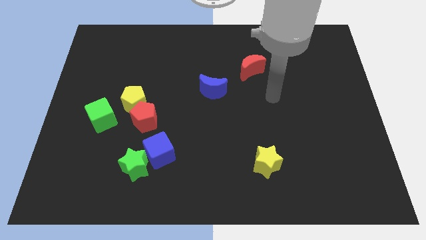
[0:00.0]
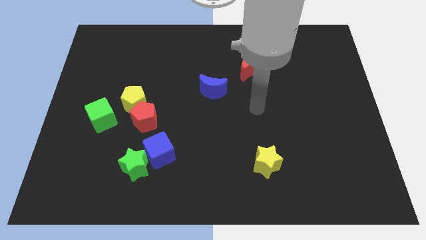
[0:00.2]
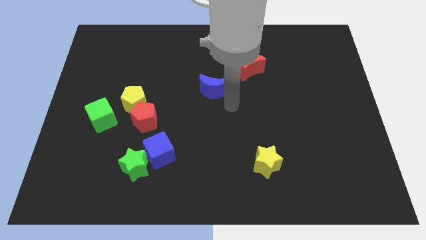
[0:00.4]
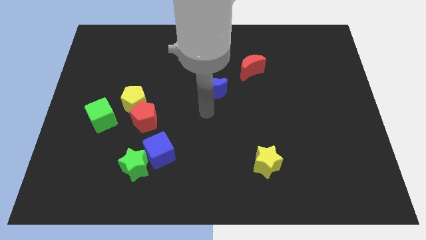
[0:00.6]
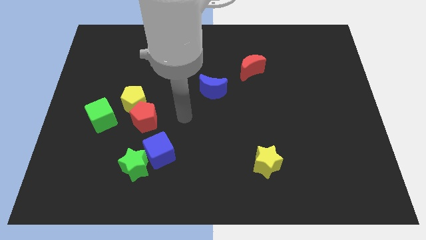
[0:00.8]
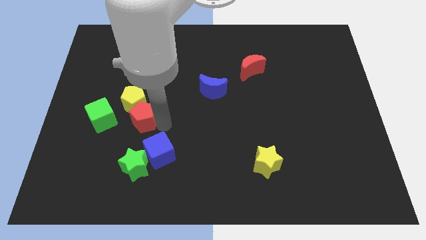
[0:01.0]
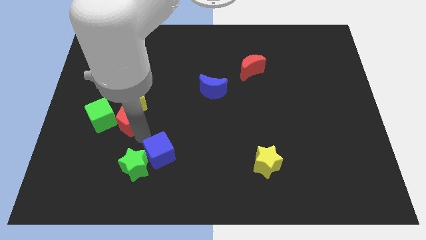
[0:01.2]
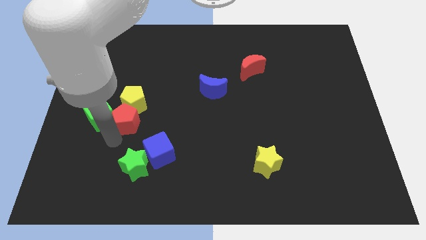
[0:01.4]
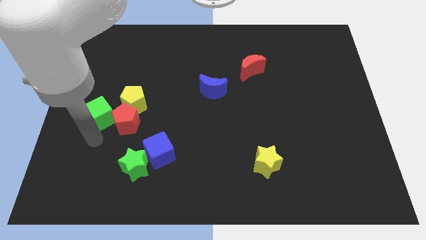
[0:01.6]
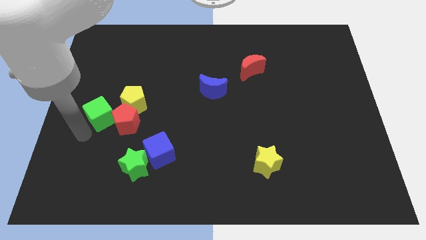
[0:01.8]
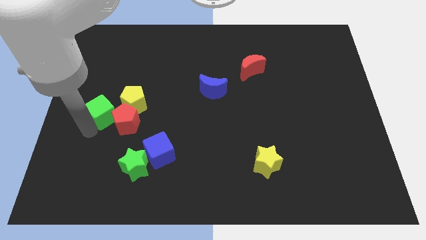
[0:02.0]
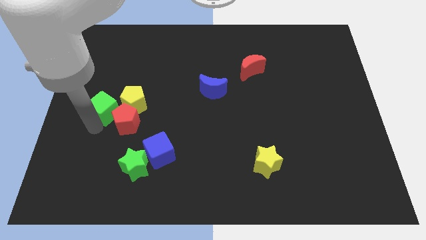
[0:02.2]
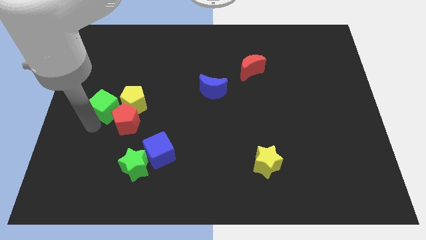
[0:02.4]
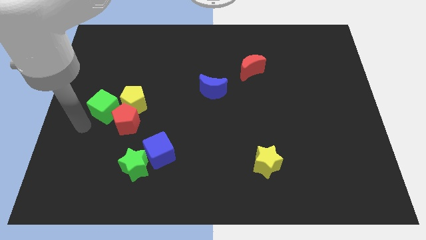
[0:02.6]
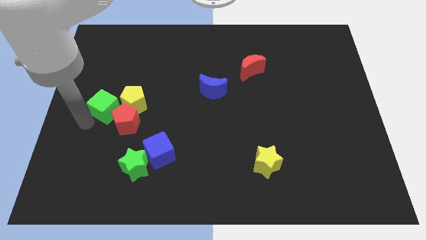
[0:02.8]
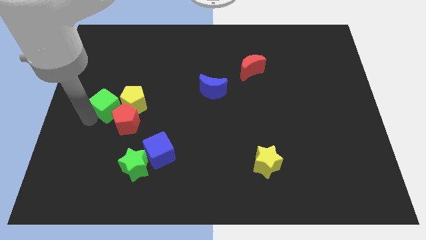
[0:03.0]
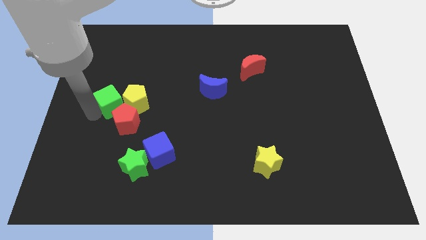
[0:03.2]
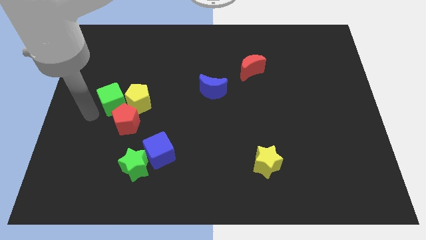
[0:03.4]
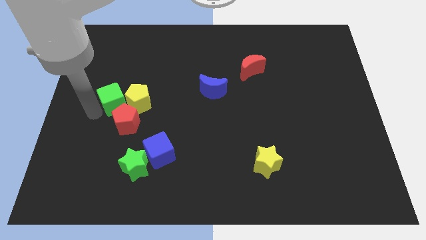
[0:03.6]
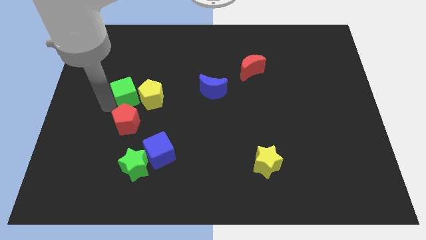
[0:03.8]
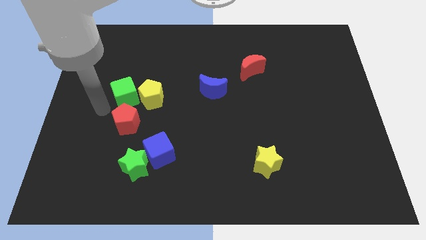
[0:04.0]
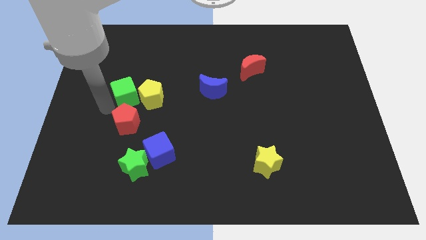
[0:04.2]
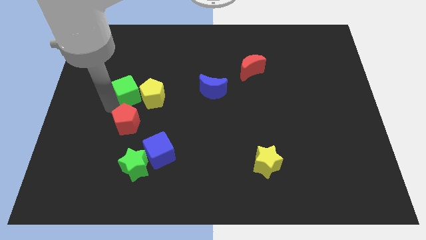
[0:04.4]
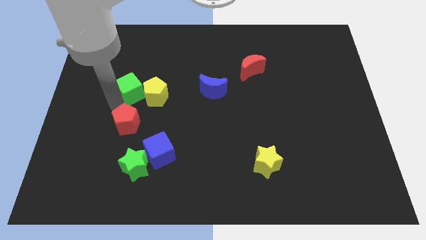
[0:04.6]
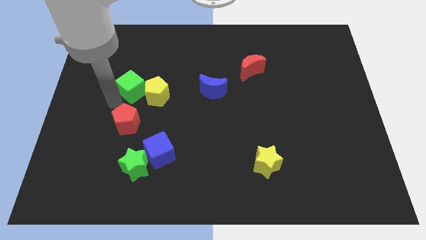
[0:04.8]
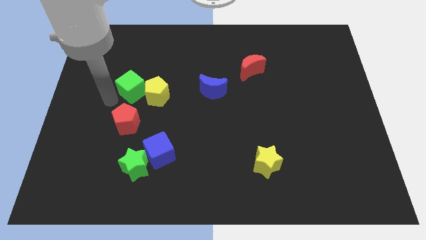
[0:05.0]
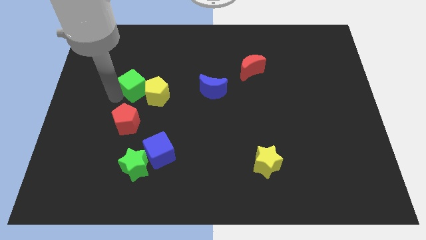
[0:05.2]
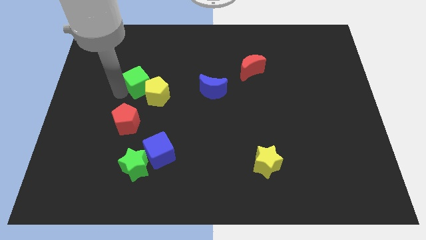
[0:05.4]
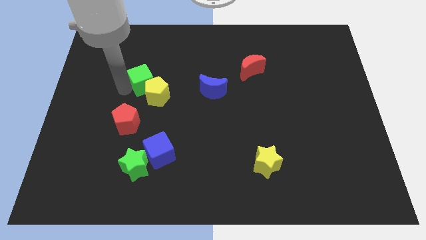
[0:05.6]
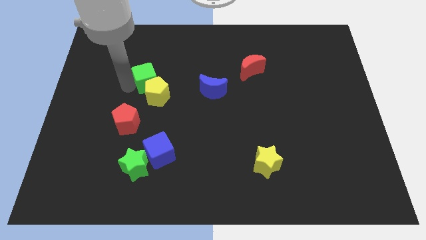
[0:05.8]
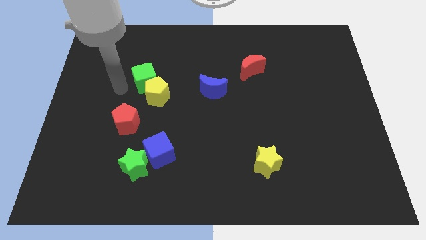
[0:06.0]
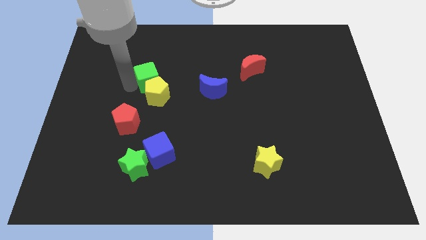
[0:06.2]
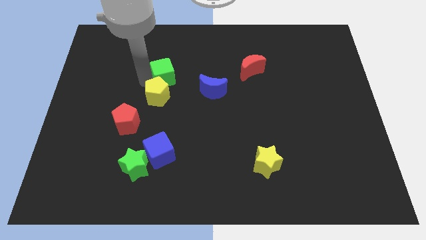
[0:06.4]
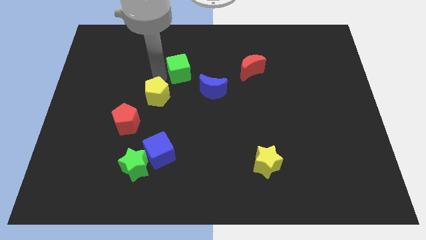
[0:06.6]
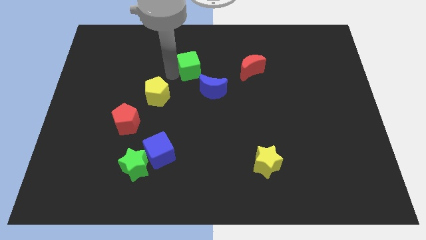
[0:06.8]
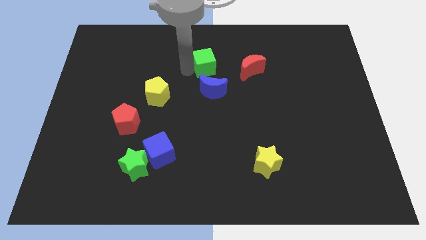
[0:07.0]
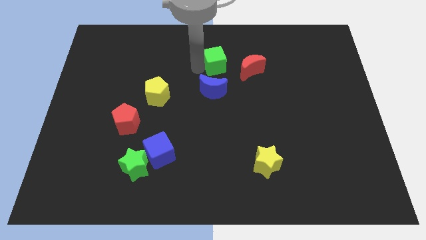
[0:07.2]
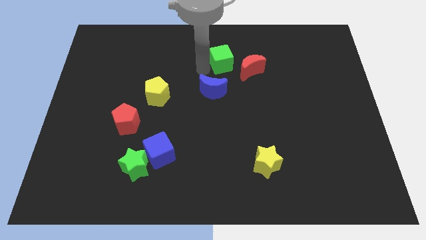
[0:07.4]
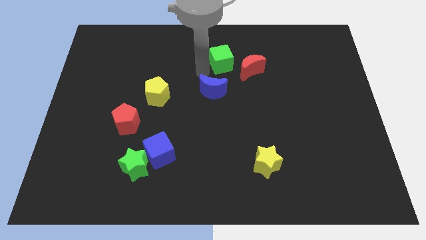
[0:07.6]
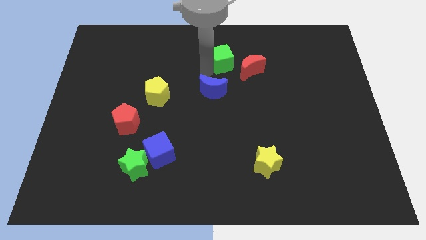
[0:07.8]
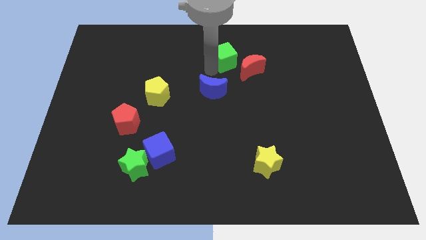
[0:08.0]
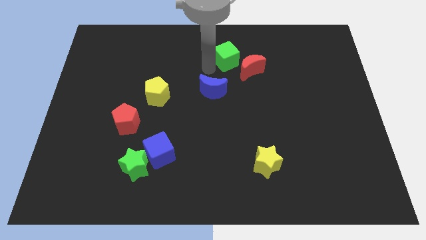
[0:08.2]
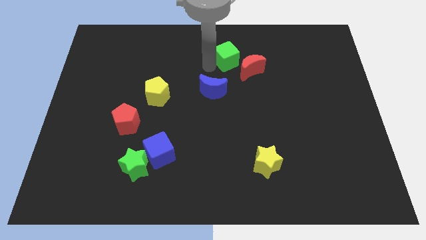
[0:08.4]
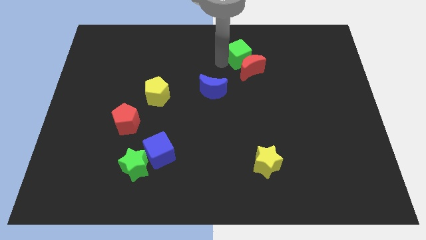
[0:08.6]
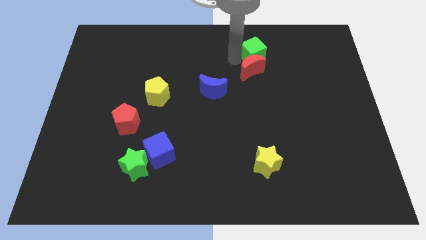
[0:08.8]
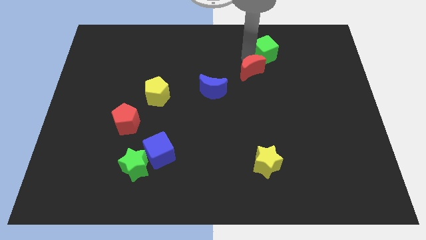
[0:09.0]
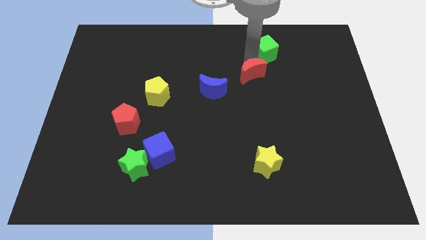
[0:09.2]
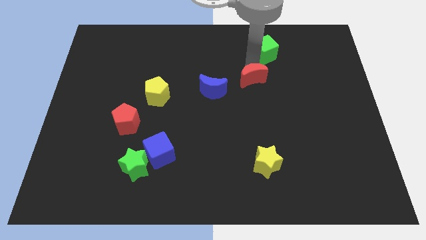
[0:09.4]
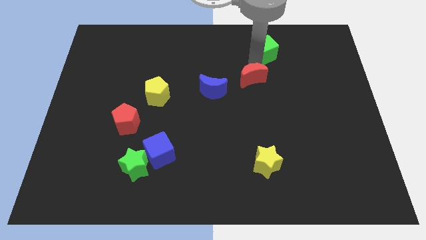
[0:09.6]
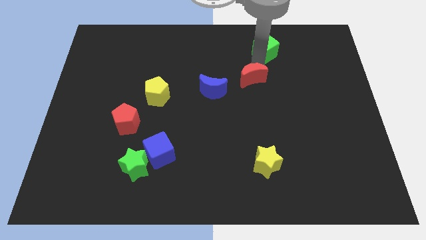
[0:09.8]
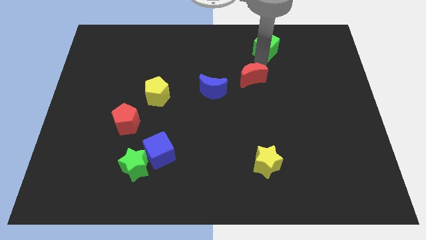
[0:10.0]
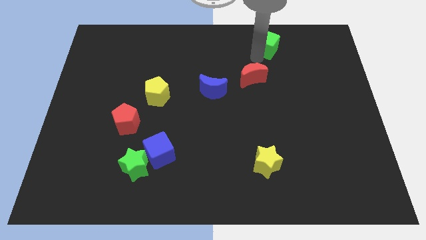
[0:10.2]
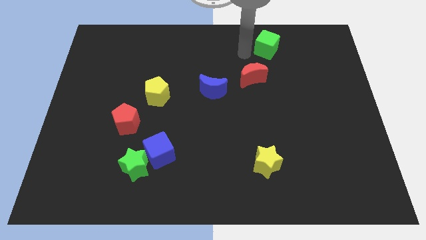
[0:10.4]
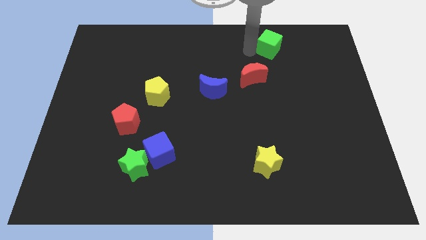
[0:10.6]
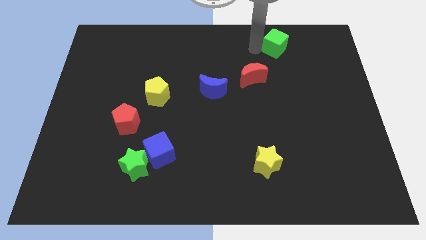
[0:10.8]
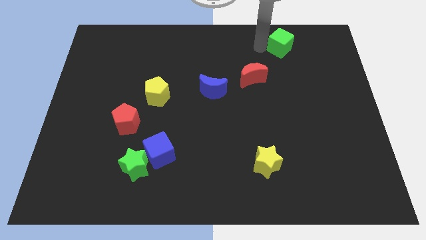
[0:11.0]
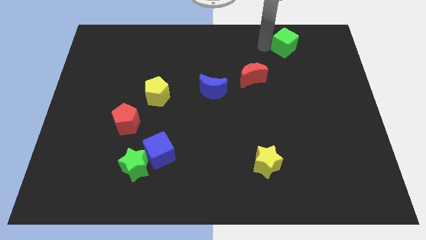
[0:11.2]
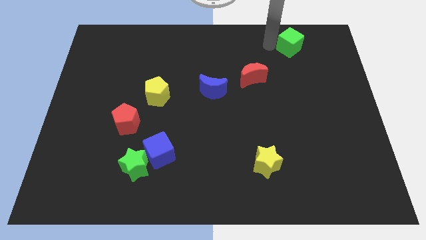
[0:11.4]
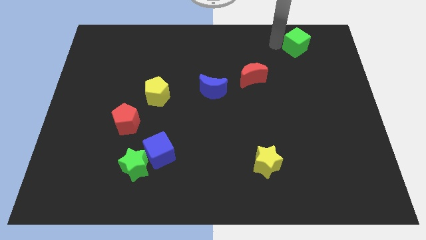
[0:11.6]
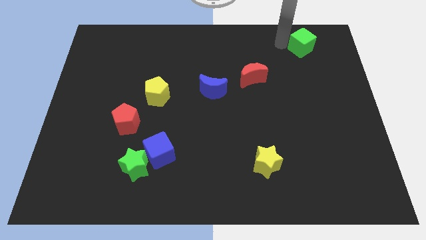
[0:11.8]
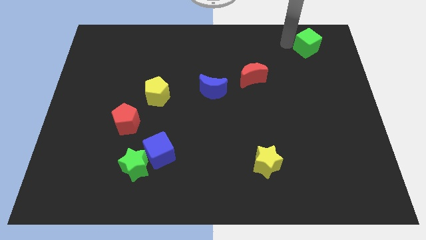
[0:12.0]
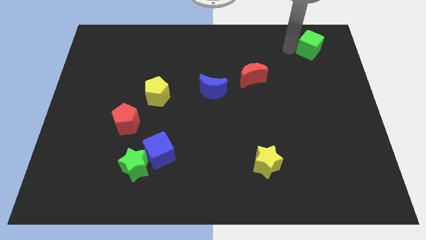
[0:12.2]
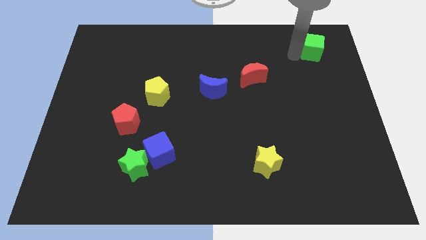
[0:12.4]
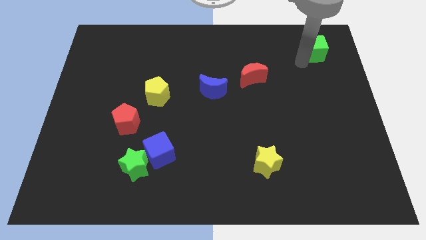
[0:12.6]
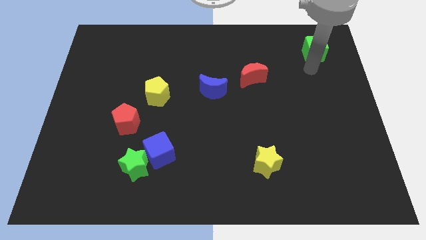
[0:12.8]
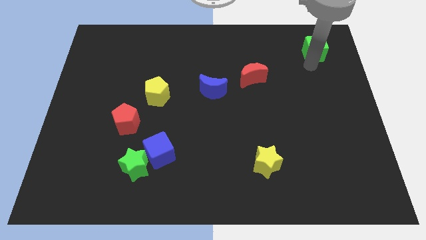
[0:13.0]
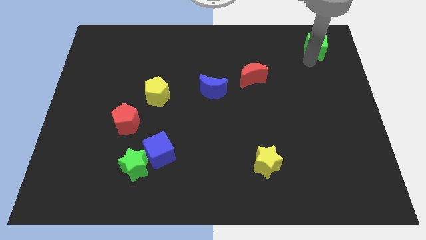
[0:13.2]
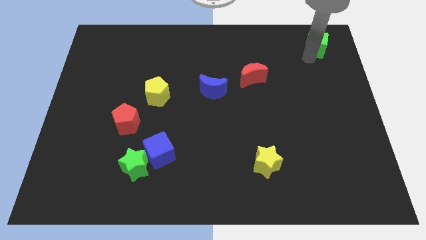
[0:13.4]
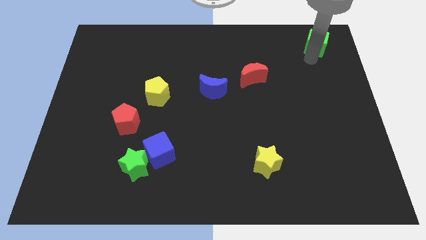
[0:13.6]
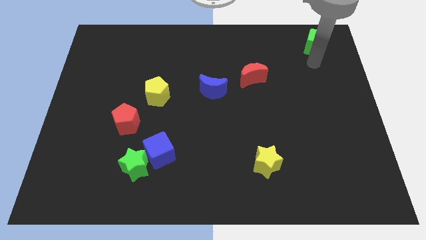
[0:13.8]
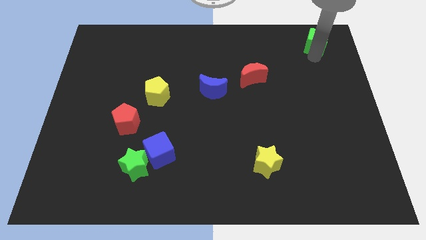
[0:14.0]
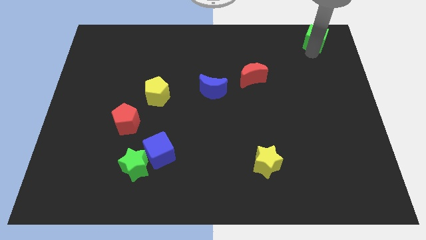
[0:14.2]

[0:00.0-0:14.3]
put the green cube to the upper right corner

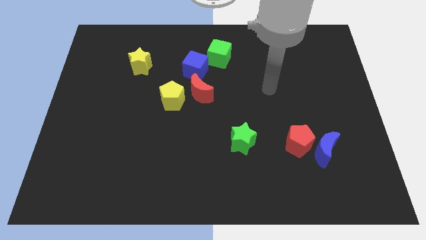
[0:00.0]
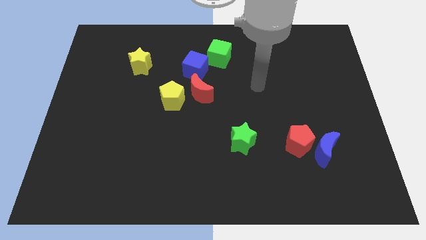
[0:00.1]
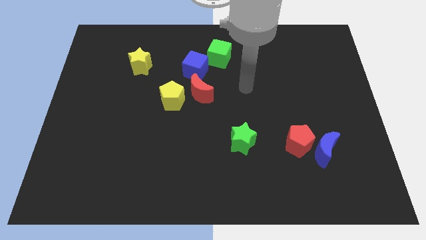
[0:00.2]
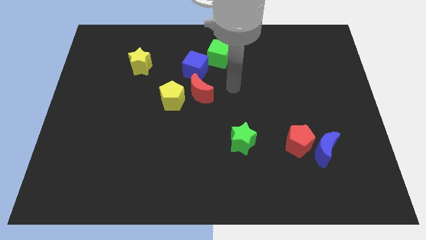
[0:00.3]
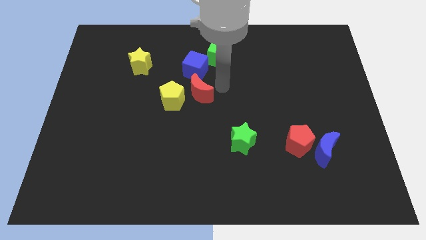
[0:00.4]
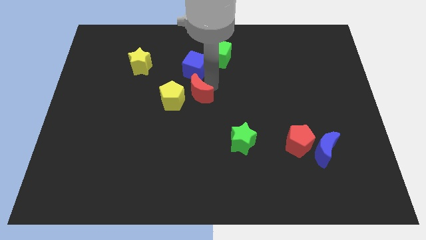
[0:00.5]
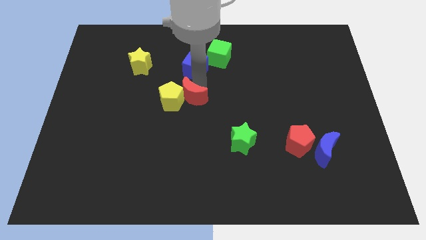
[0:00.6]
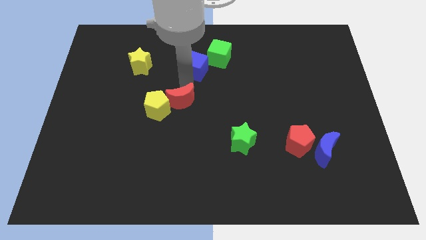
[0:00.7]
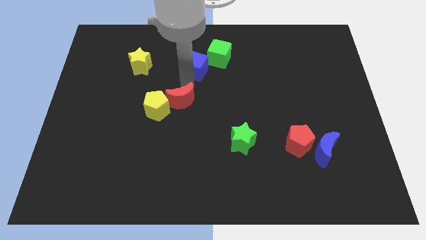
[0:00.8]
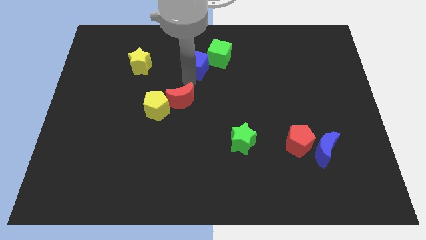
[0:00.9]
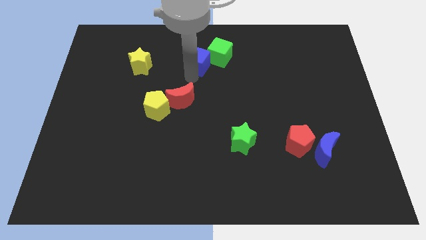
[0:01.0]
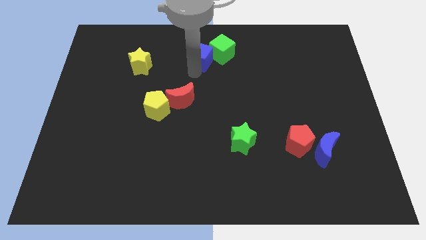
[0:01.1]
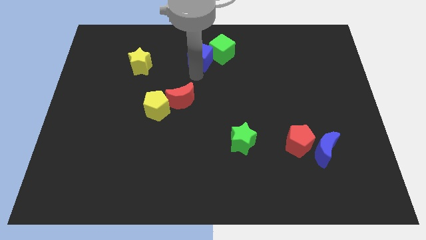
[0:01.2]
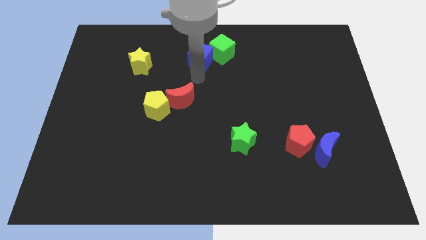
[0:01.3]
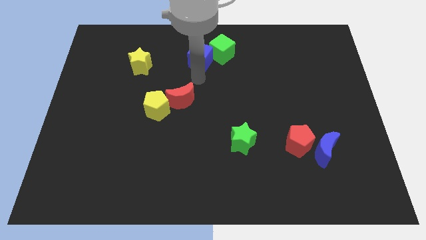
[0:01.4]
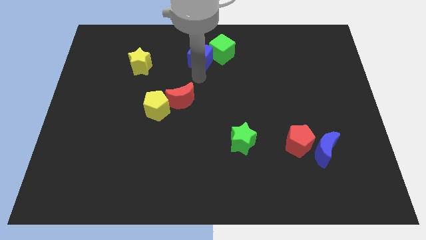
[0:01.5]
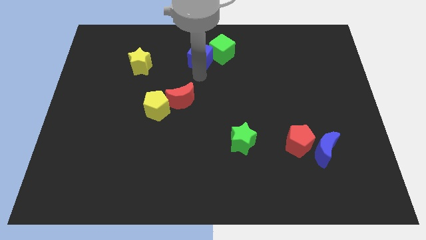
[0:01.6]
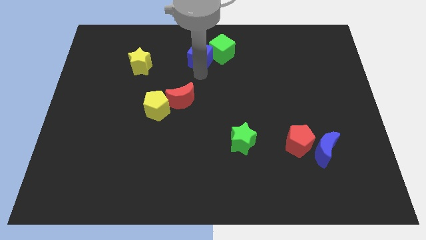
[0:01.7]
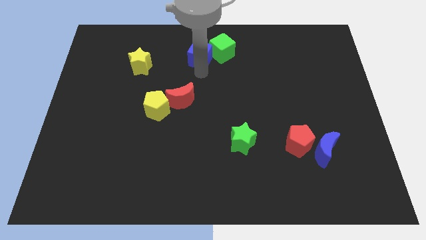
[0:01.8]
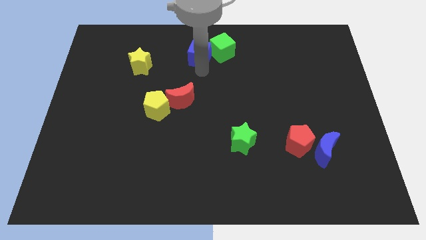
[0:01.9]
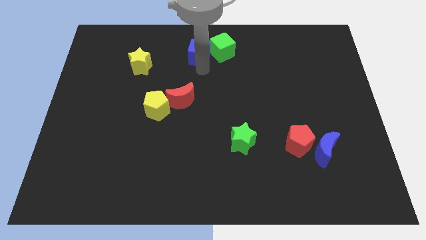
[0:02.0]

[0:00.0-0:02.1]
put the blue cube to the top side
